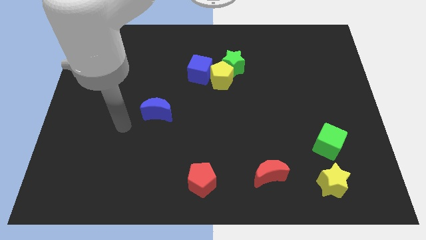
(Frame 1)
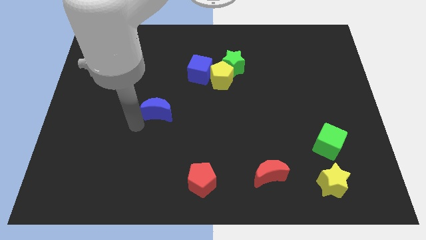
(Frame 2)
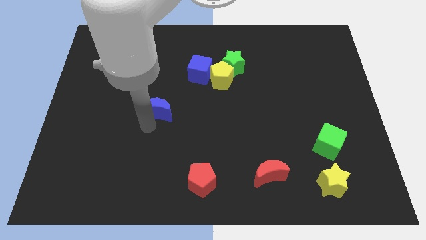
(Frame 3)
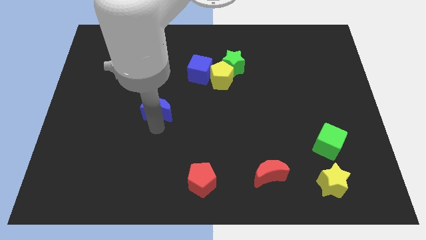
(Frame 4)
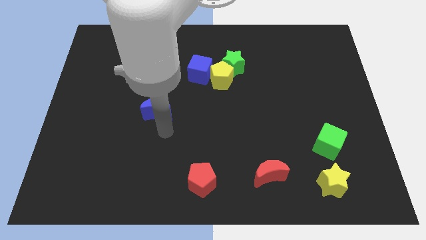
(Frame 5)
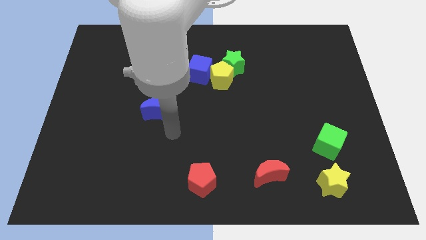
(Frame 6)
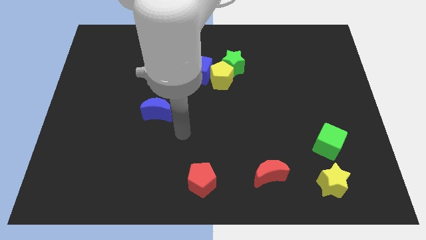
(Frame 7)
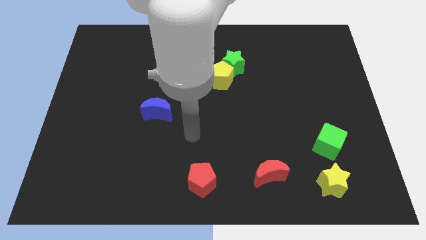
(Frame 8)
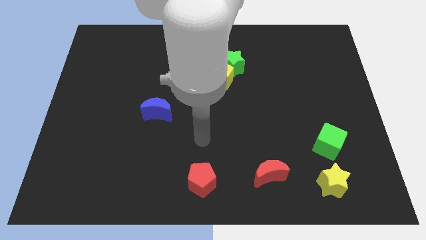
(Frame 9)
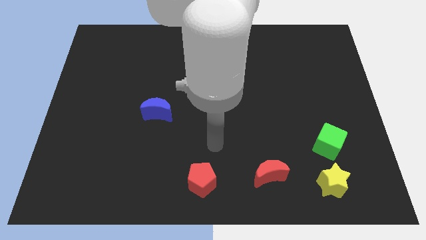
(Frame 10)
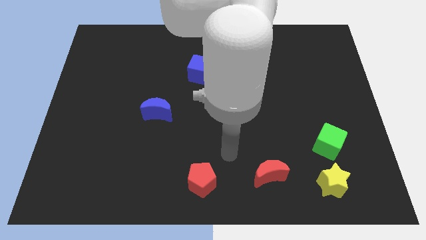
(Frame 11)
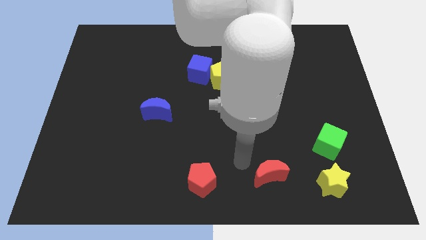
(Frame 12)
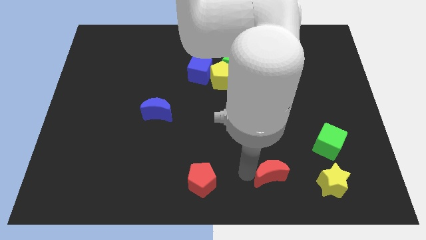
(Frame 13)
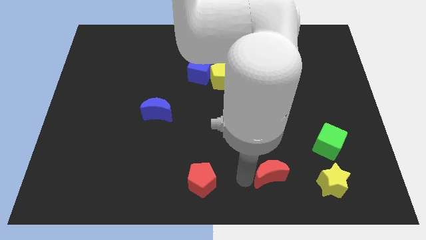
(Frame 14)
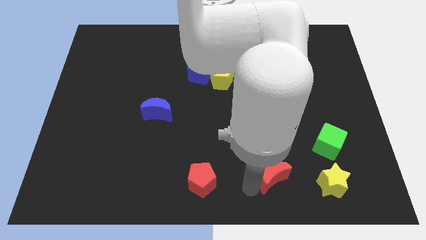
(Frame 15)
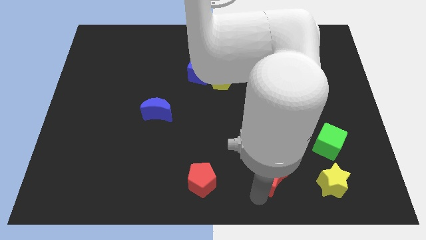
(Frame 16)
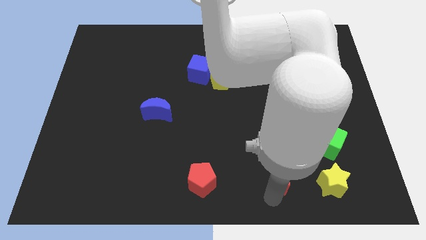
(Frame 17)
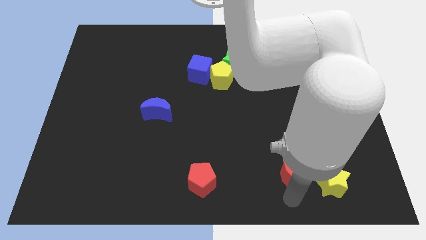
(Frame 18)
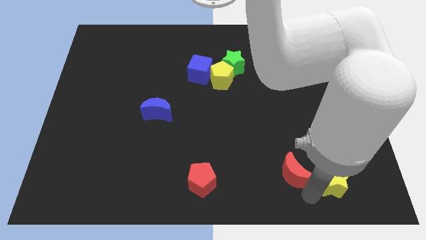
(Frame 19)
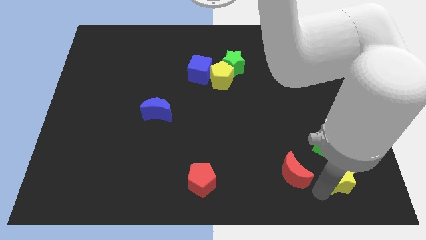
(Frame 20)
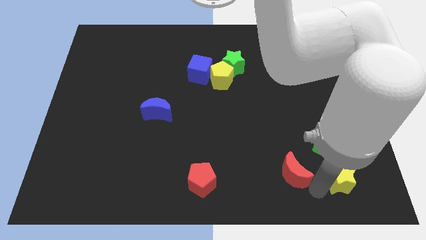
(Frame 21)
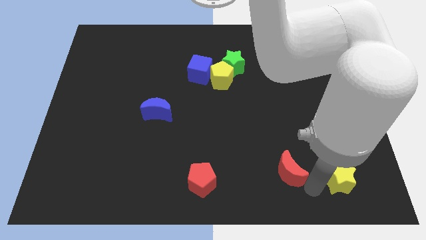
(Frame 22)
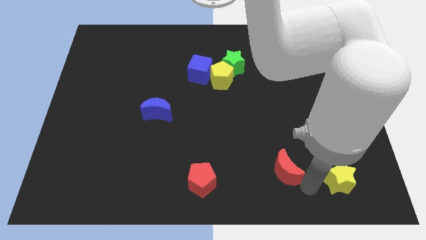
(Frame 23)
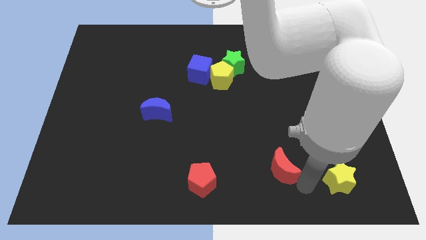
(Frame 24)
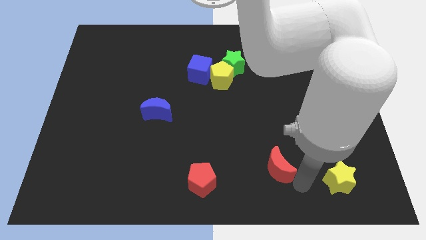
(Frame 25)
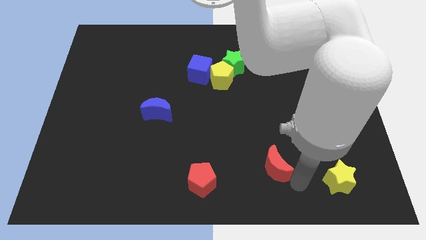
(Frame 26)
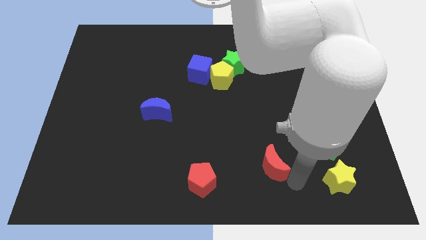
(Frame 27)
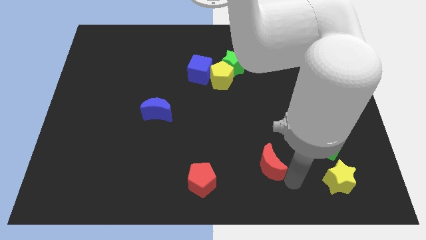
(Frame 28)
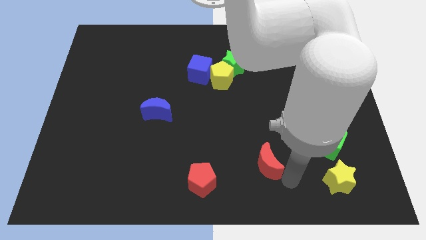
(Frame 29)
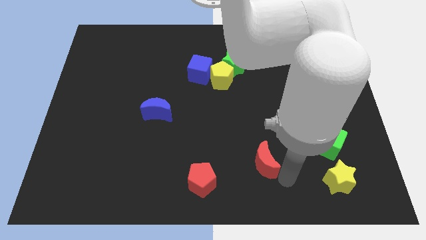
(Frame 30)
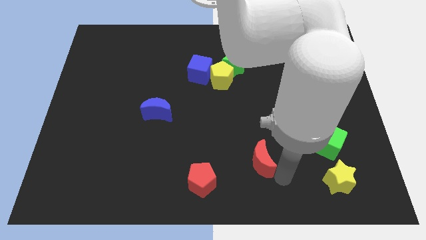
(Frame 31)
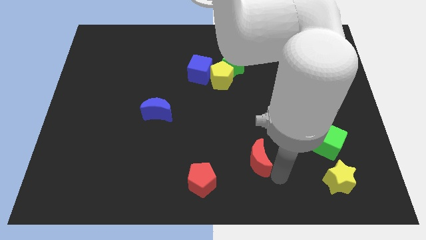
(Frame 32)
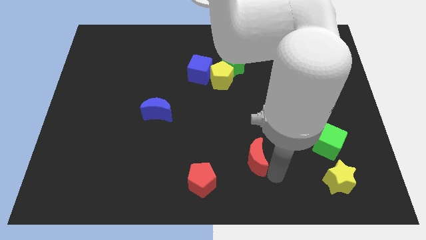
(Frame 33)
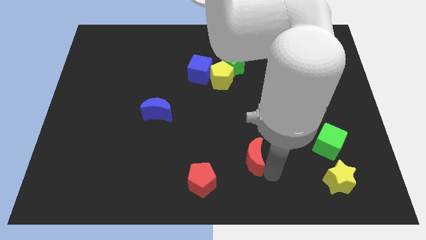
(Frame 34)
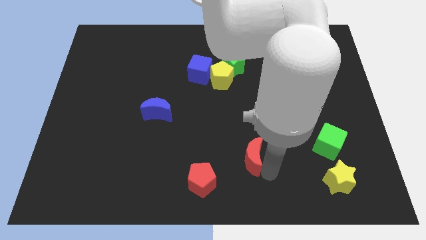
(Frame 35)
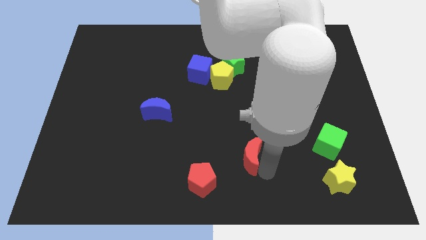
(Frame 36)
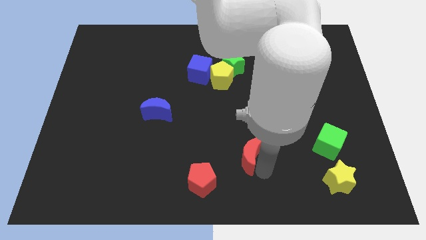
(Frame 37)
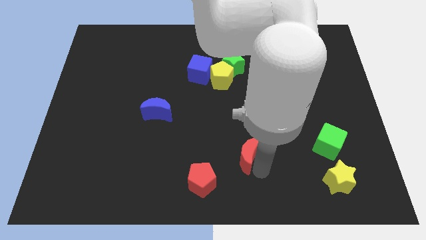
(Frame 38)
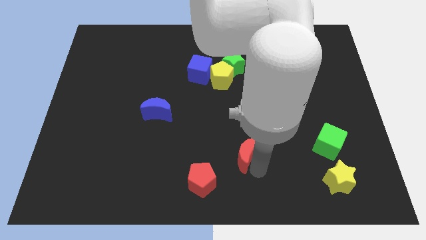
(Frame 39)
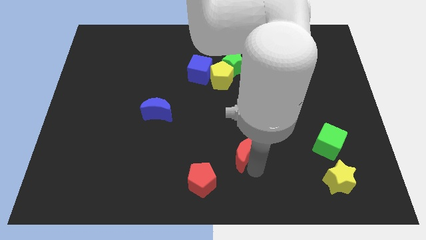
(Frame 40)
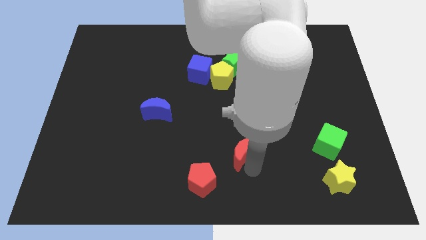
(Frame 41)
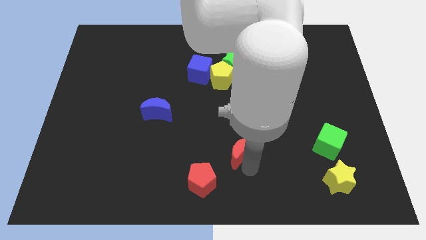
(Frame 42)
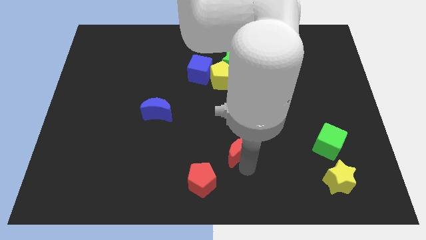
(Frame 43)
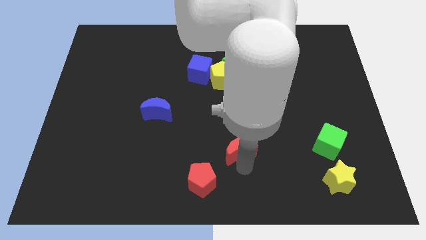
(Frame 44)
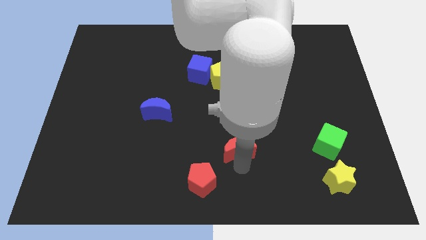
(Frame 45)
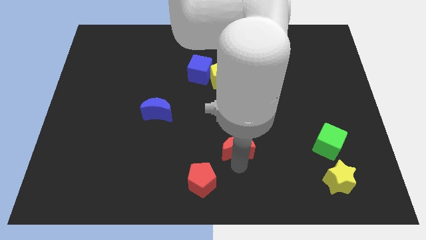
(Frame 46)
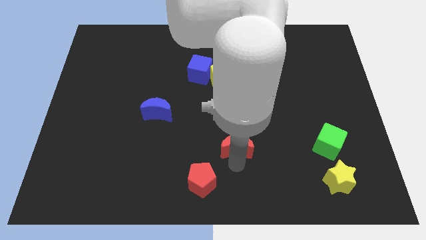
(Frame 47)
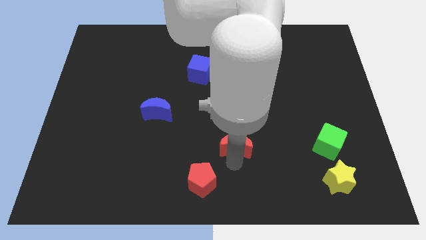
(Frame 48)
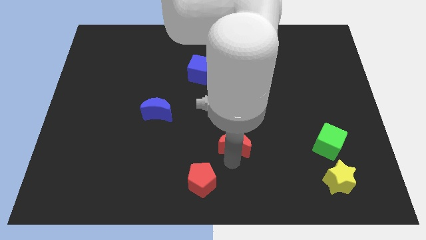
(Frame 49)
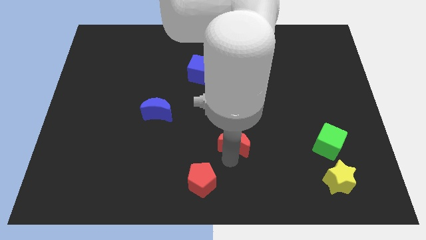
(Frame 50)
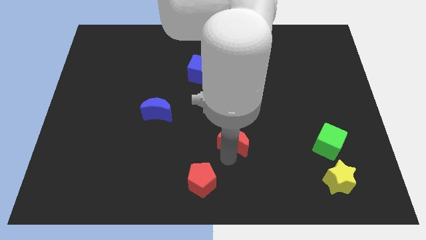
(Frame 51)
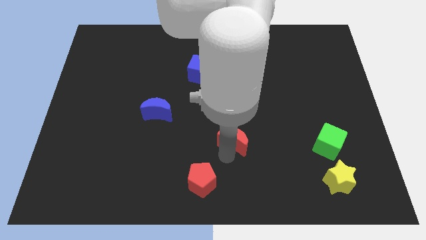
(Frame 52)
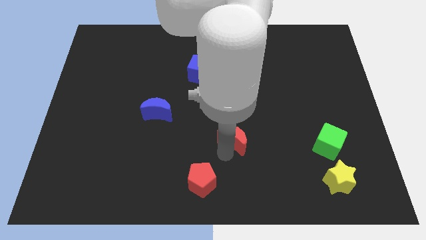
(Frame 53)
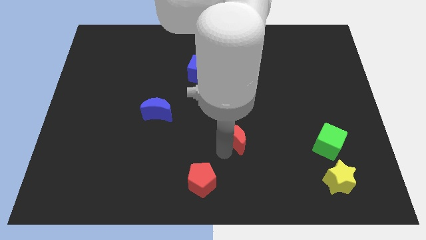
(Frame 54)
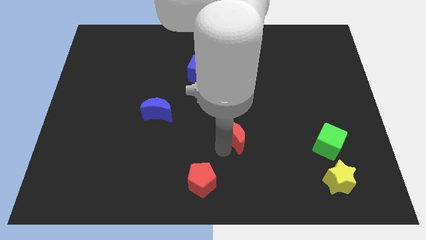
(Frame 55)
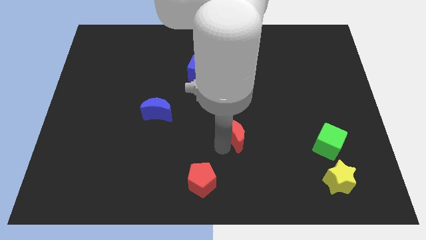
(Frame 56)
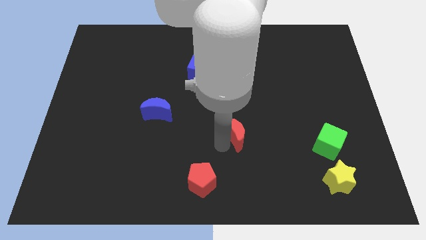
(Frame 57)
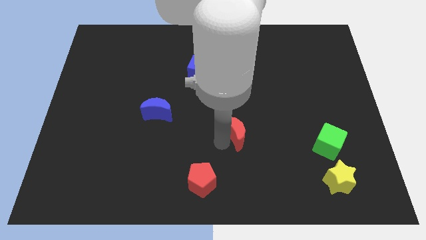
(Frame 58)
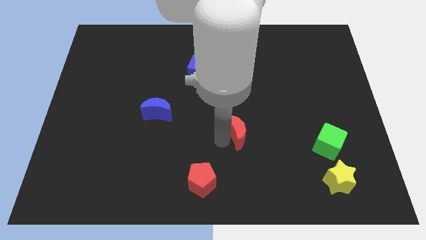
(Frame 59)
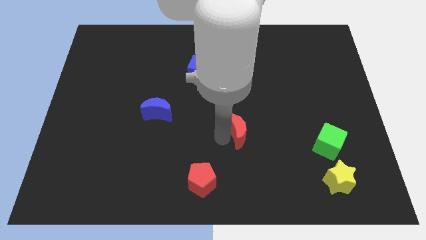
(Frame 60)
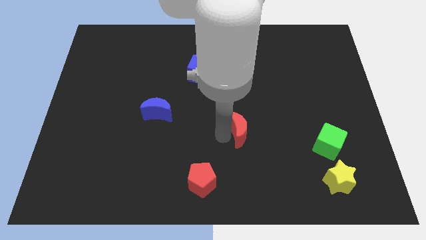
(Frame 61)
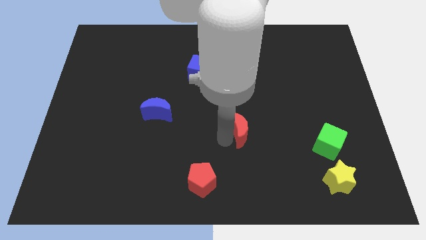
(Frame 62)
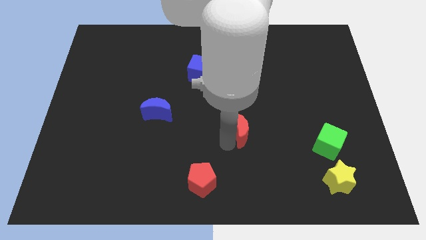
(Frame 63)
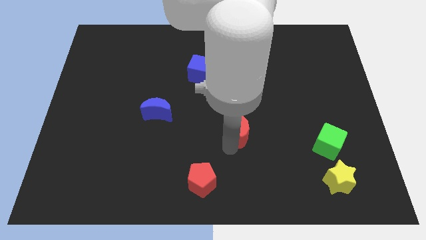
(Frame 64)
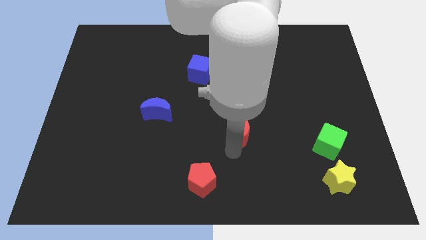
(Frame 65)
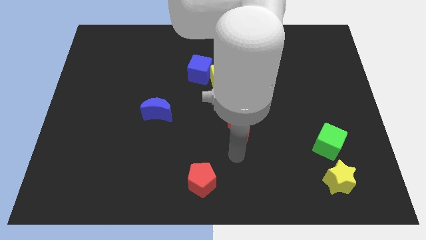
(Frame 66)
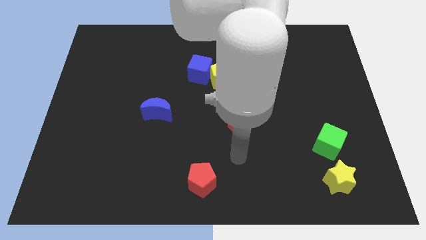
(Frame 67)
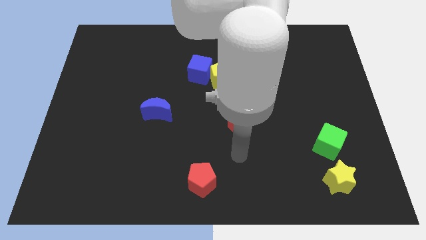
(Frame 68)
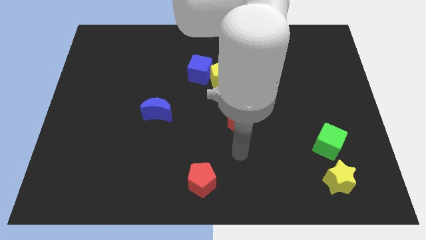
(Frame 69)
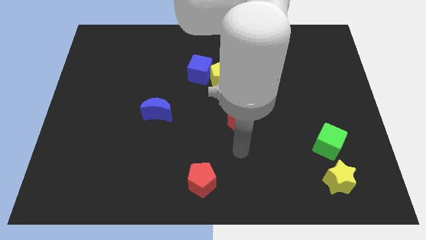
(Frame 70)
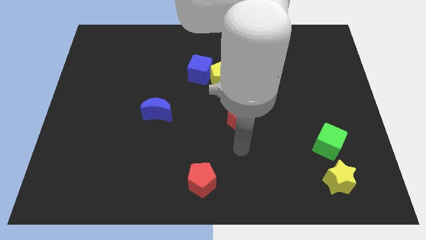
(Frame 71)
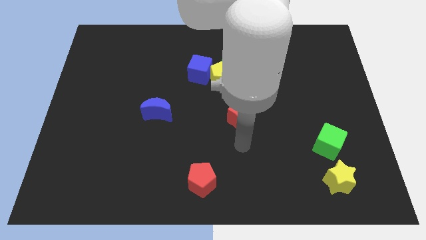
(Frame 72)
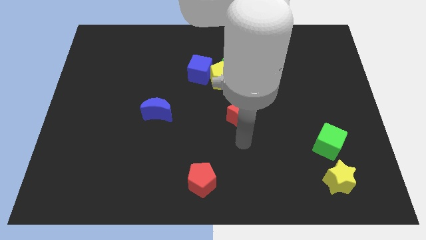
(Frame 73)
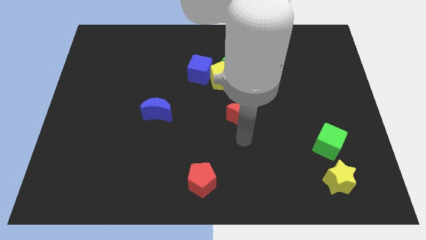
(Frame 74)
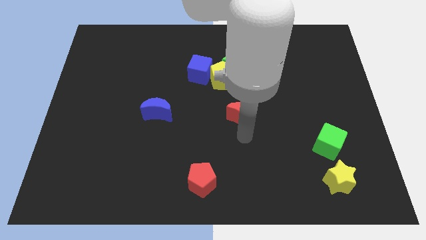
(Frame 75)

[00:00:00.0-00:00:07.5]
slide the red moon below the green star
